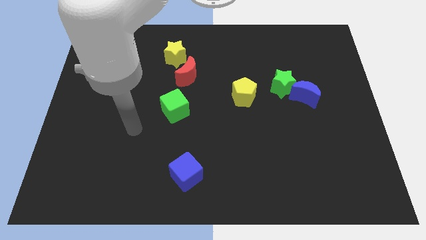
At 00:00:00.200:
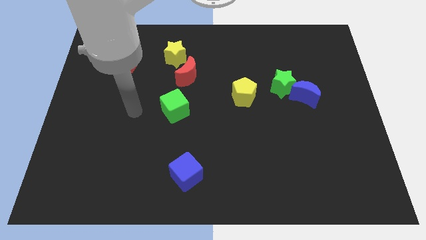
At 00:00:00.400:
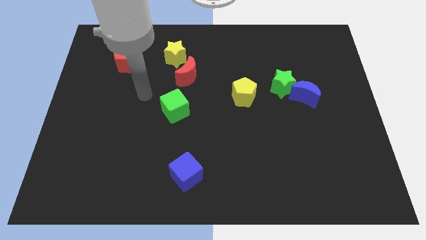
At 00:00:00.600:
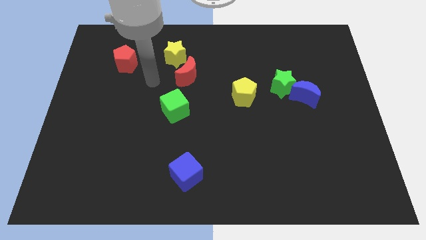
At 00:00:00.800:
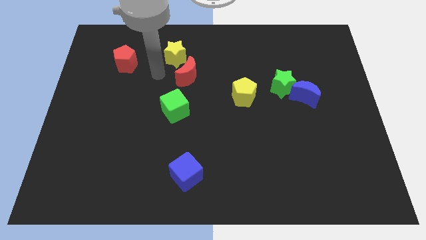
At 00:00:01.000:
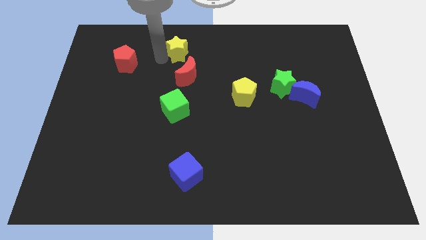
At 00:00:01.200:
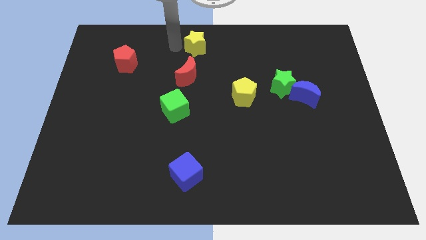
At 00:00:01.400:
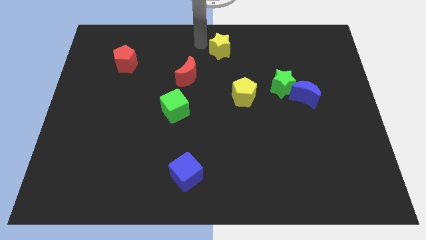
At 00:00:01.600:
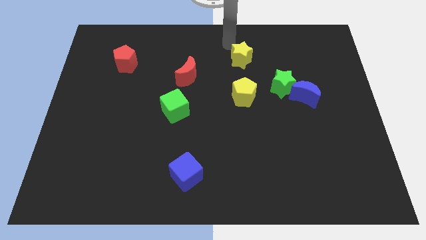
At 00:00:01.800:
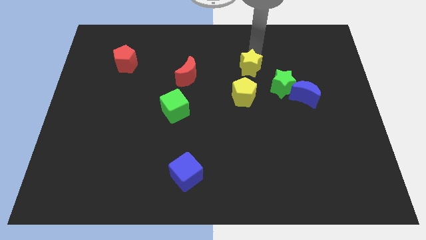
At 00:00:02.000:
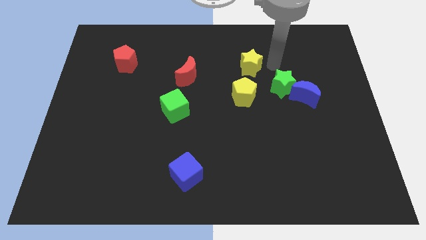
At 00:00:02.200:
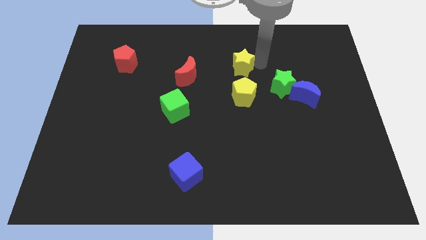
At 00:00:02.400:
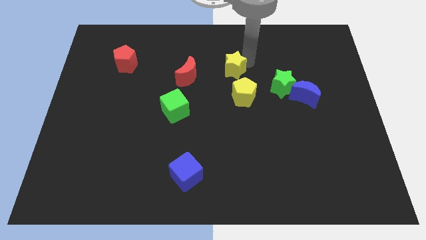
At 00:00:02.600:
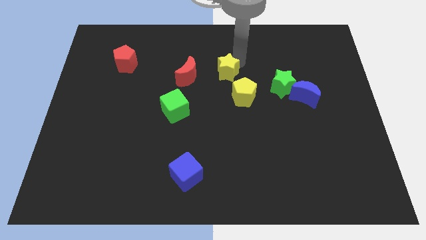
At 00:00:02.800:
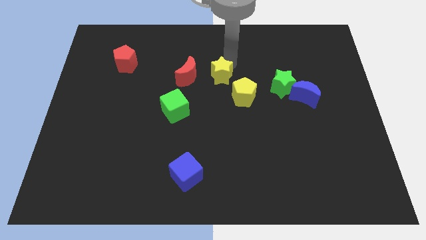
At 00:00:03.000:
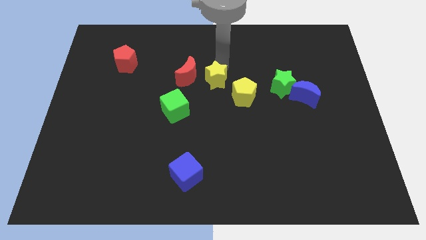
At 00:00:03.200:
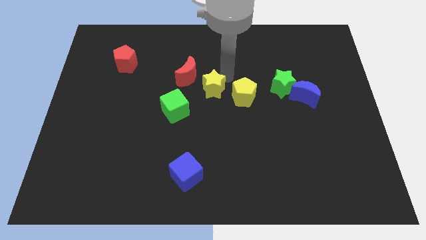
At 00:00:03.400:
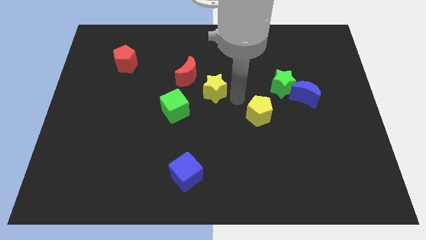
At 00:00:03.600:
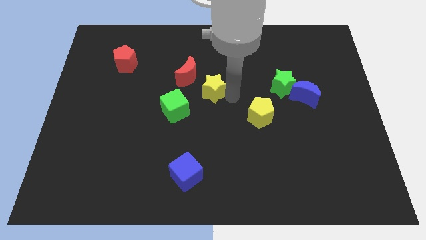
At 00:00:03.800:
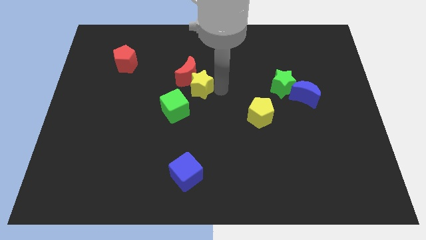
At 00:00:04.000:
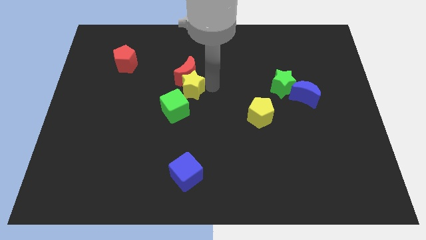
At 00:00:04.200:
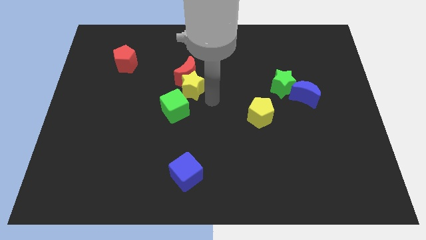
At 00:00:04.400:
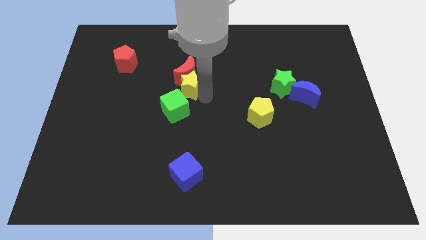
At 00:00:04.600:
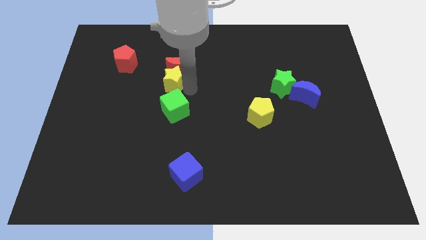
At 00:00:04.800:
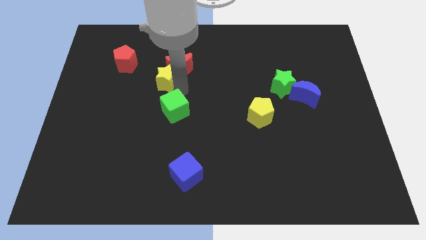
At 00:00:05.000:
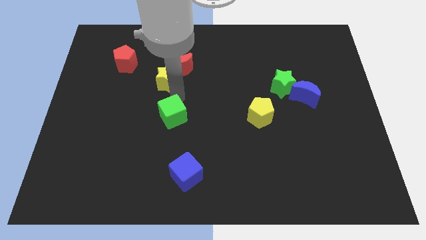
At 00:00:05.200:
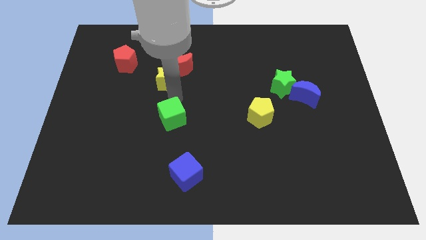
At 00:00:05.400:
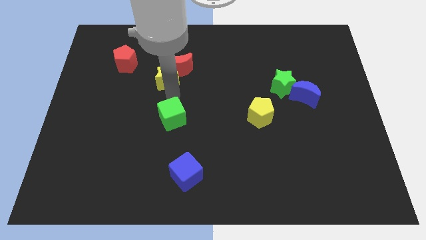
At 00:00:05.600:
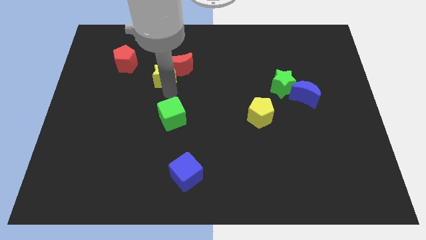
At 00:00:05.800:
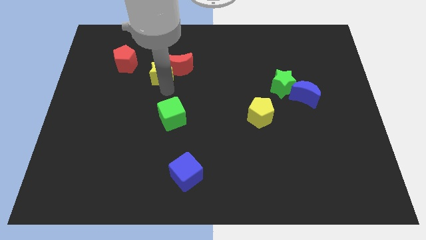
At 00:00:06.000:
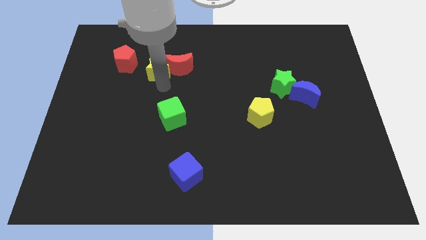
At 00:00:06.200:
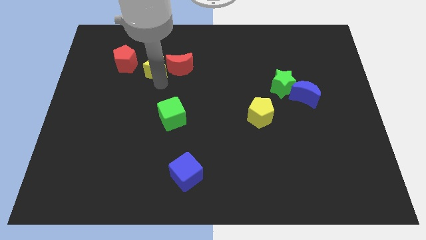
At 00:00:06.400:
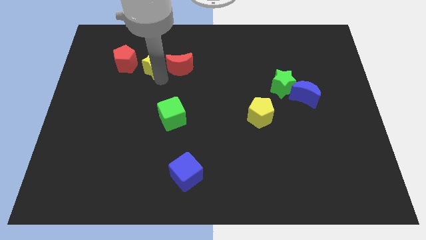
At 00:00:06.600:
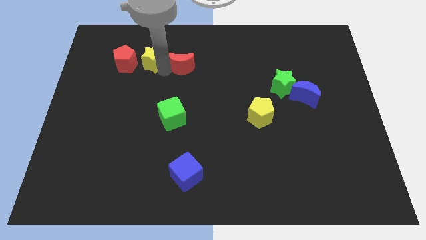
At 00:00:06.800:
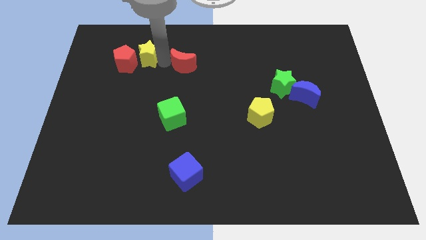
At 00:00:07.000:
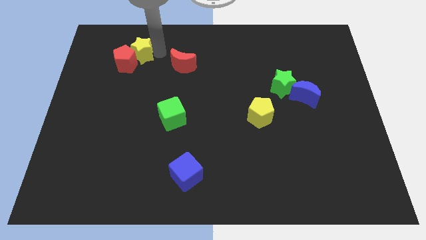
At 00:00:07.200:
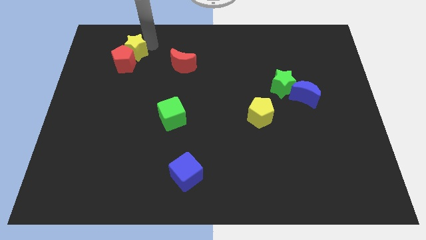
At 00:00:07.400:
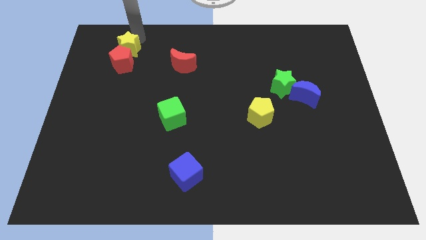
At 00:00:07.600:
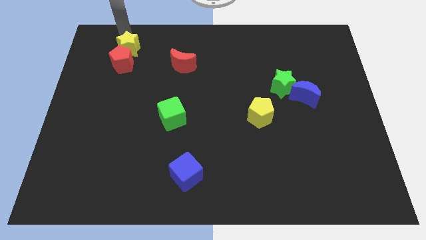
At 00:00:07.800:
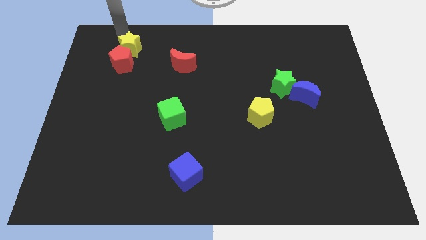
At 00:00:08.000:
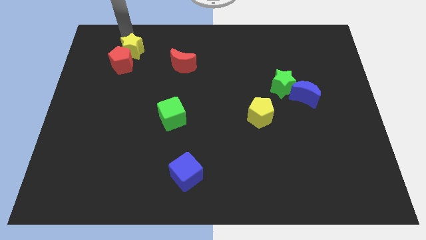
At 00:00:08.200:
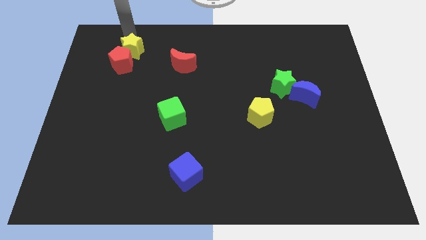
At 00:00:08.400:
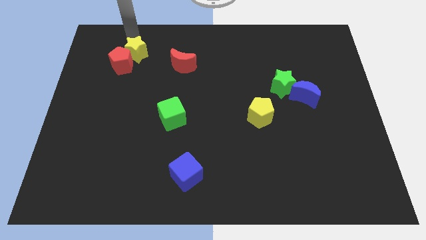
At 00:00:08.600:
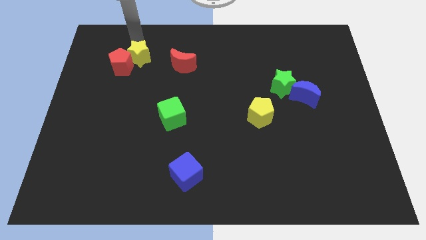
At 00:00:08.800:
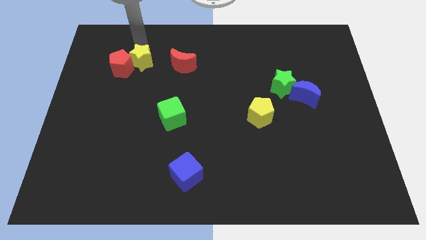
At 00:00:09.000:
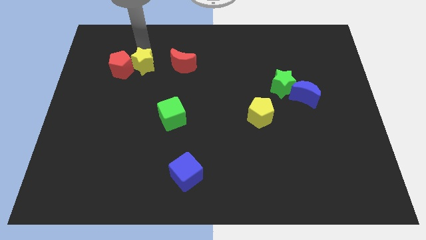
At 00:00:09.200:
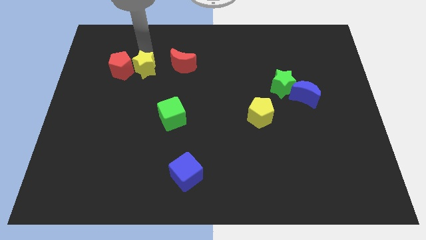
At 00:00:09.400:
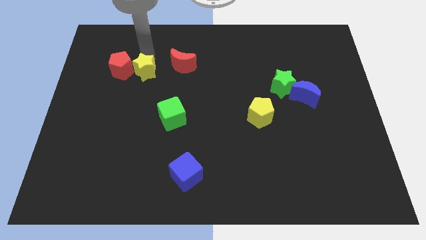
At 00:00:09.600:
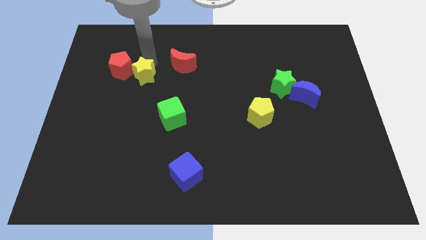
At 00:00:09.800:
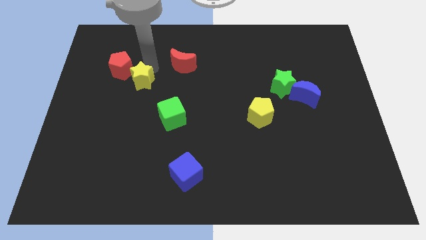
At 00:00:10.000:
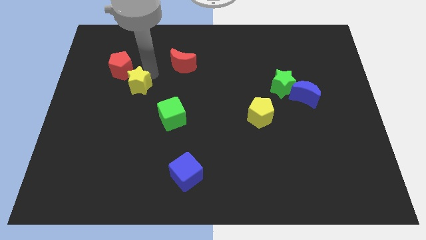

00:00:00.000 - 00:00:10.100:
push the yellow star below the red pentagon

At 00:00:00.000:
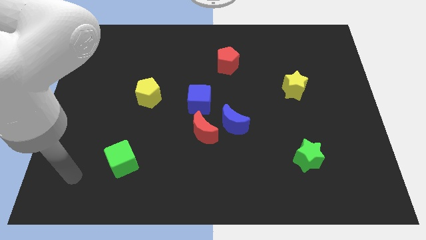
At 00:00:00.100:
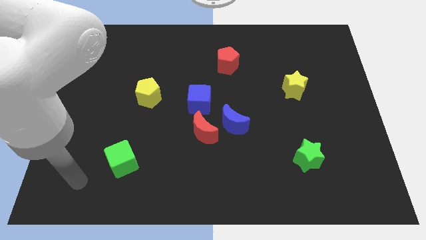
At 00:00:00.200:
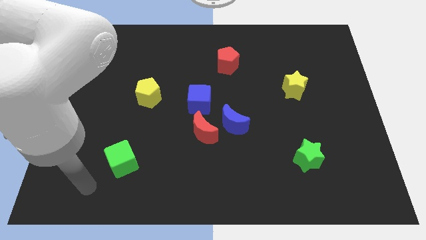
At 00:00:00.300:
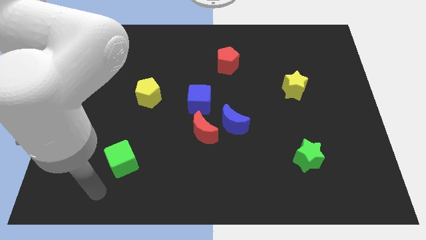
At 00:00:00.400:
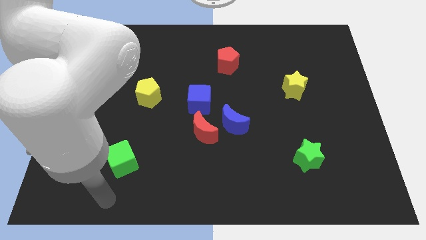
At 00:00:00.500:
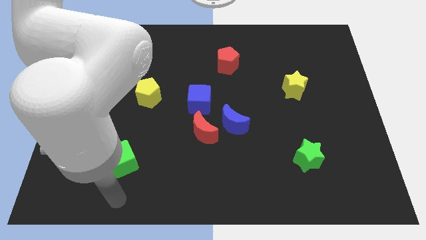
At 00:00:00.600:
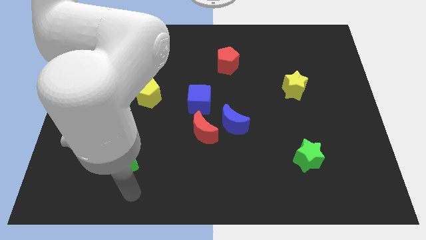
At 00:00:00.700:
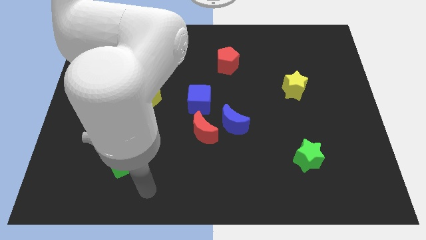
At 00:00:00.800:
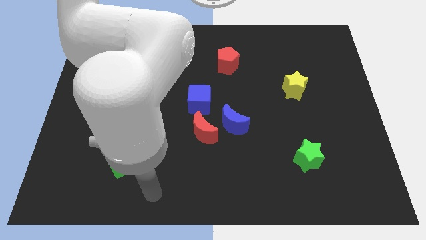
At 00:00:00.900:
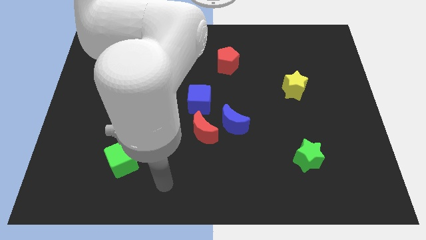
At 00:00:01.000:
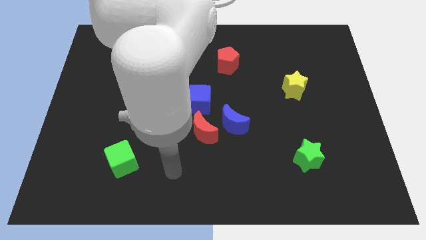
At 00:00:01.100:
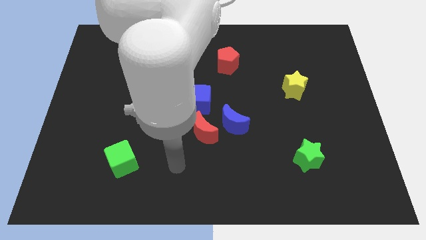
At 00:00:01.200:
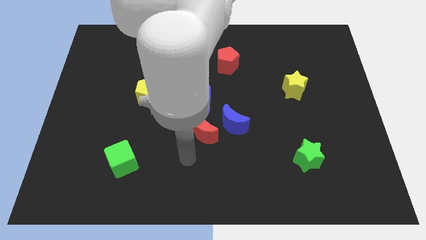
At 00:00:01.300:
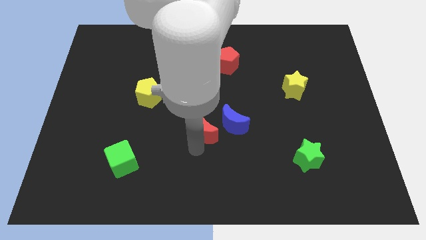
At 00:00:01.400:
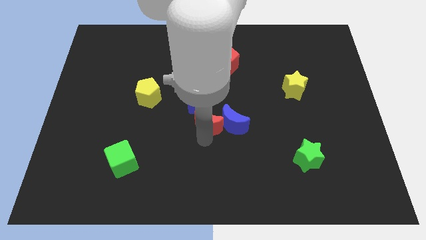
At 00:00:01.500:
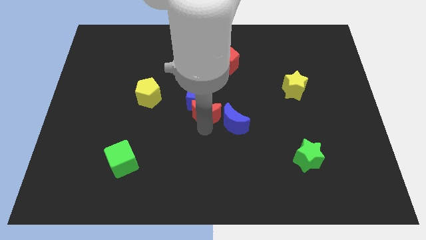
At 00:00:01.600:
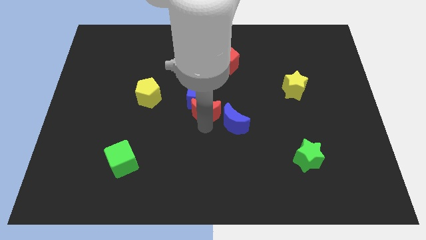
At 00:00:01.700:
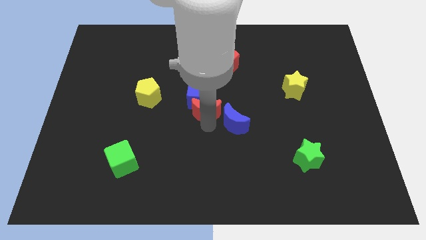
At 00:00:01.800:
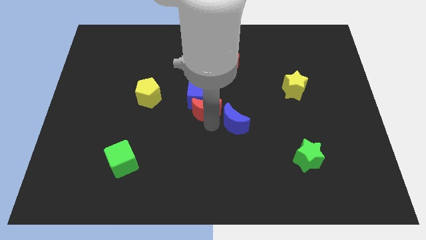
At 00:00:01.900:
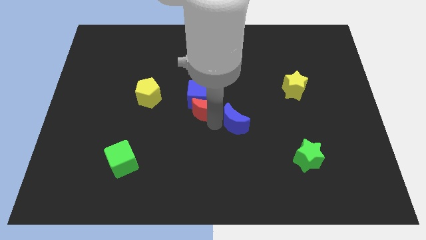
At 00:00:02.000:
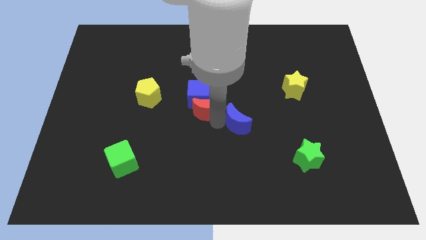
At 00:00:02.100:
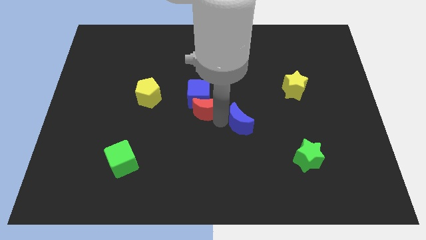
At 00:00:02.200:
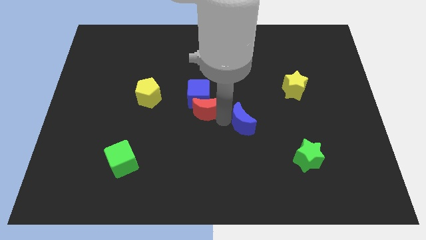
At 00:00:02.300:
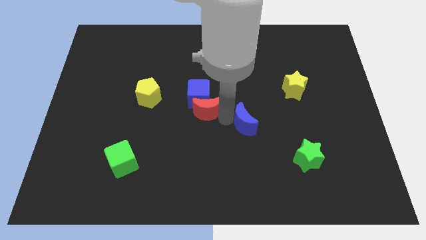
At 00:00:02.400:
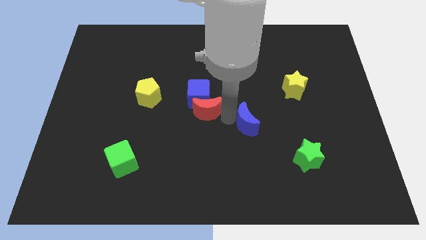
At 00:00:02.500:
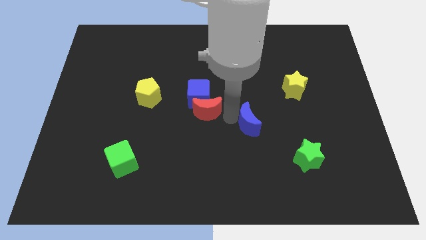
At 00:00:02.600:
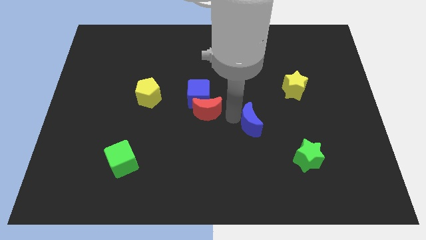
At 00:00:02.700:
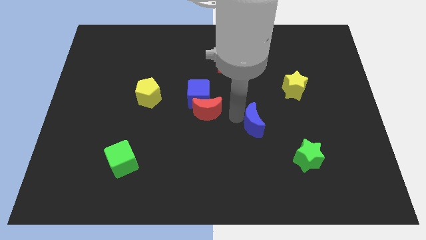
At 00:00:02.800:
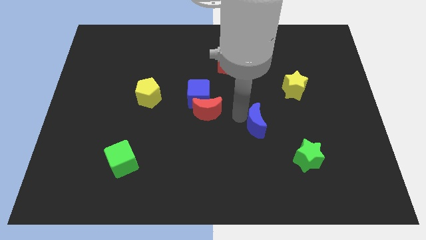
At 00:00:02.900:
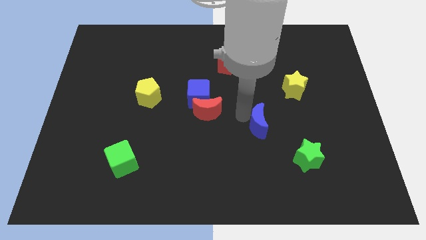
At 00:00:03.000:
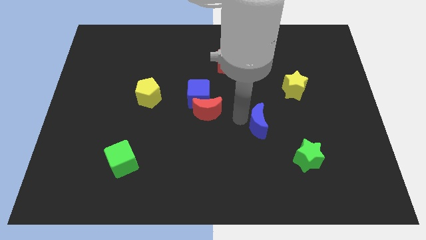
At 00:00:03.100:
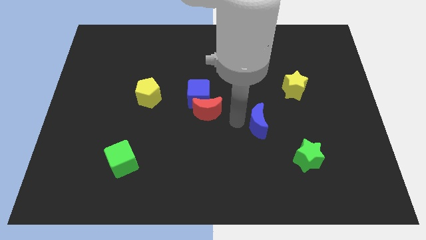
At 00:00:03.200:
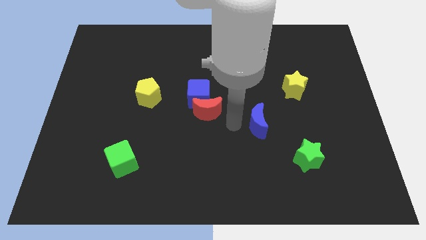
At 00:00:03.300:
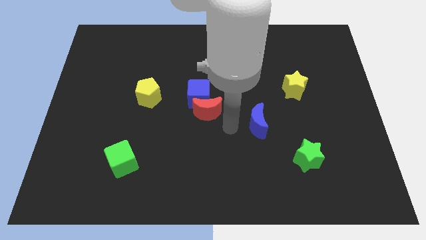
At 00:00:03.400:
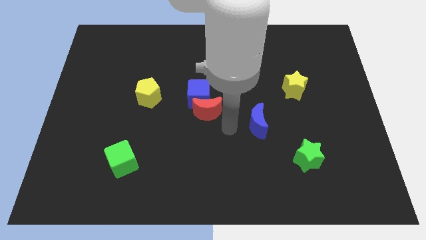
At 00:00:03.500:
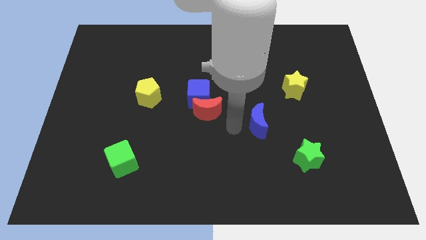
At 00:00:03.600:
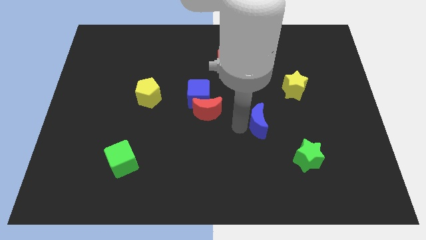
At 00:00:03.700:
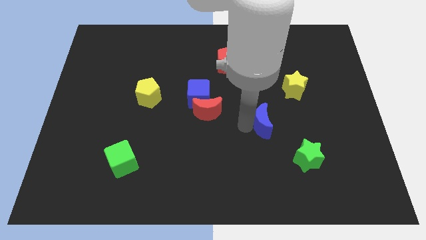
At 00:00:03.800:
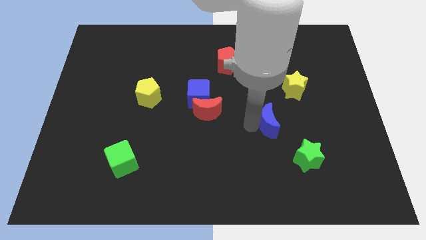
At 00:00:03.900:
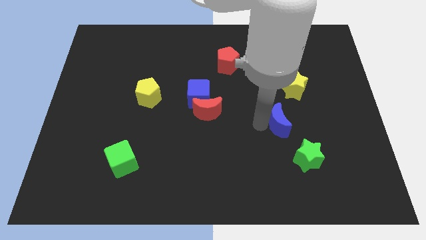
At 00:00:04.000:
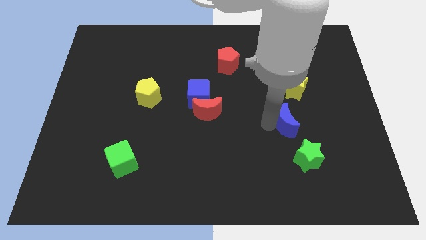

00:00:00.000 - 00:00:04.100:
move the blue moon below the yellow star
